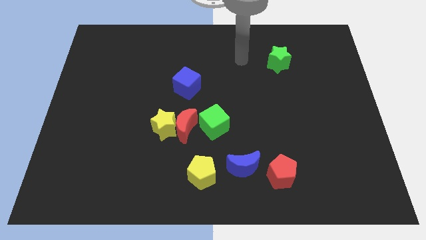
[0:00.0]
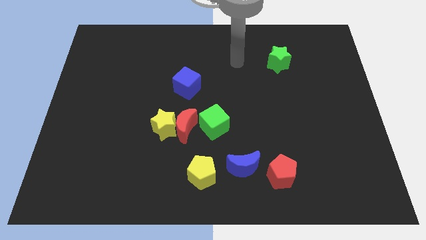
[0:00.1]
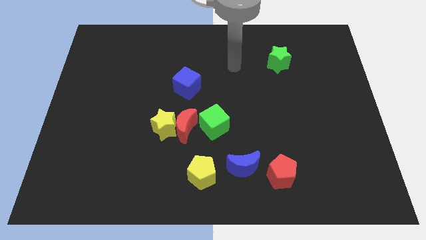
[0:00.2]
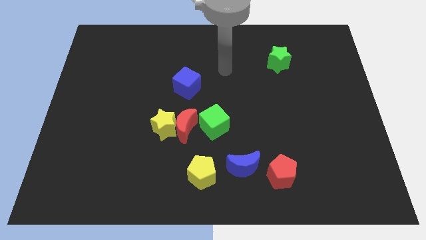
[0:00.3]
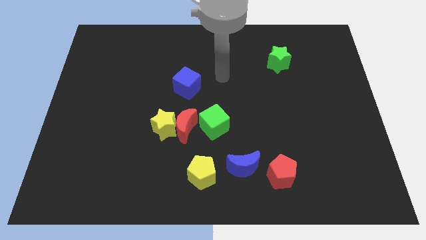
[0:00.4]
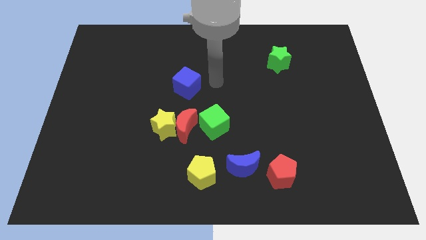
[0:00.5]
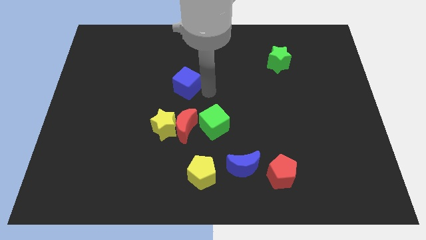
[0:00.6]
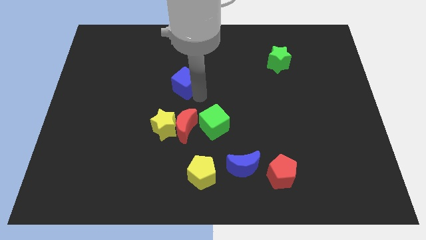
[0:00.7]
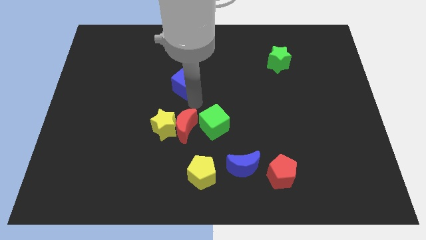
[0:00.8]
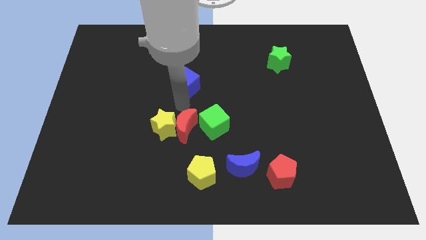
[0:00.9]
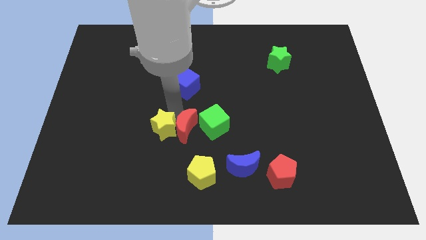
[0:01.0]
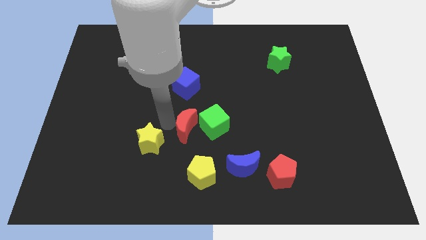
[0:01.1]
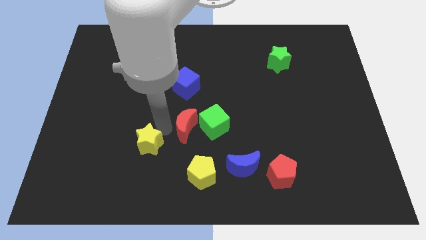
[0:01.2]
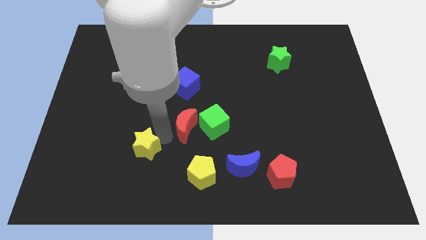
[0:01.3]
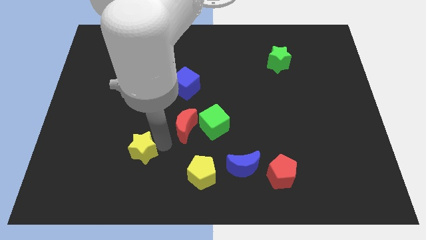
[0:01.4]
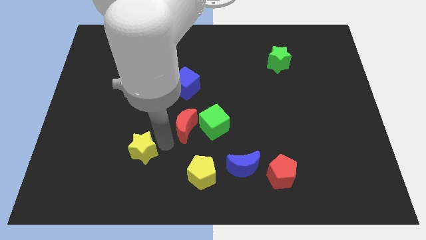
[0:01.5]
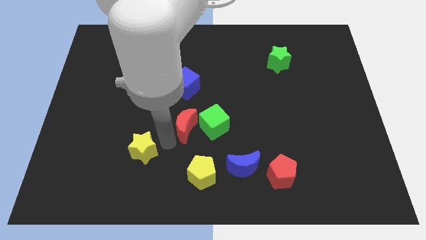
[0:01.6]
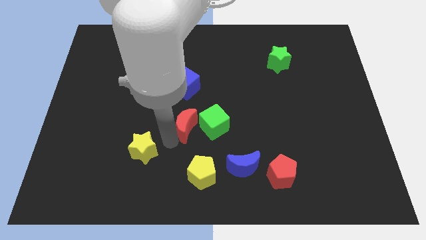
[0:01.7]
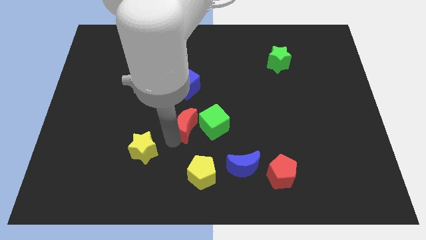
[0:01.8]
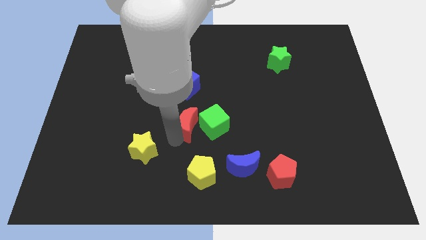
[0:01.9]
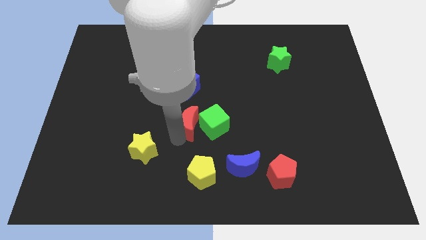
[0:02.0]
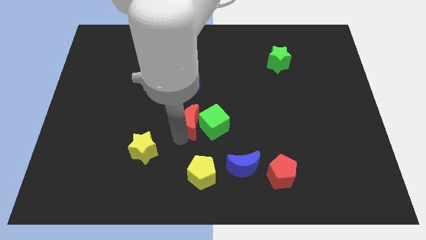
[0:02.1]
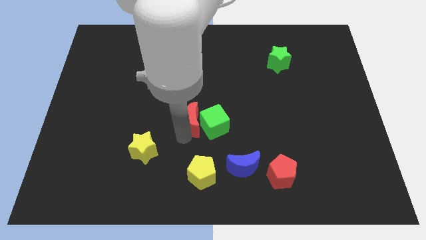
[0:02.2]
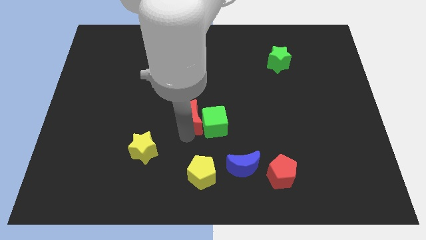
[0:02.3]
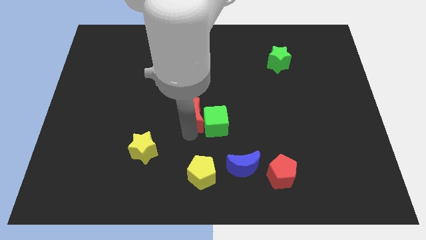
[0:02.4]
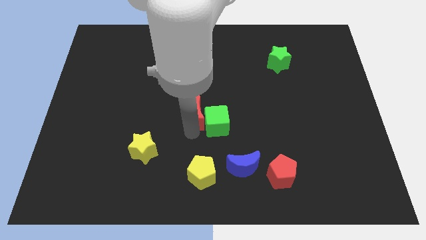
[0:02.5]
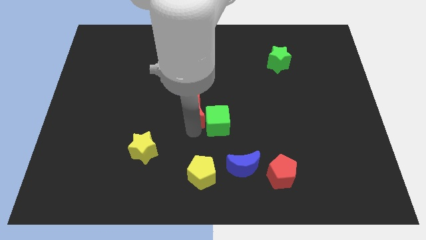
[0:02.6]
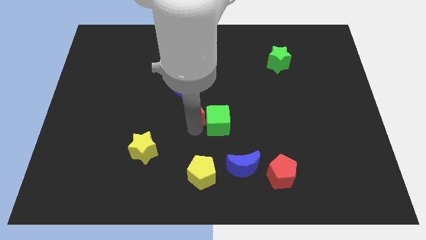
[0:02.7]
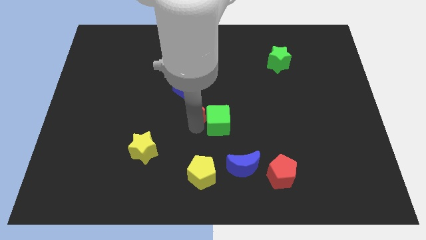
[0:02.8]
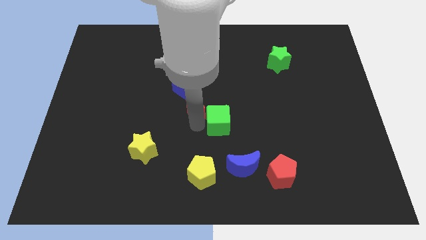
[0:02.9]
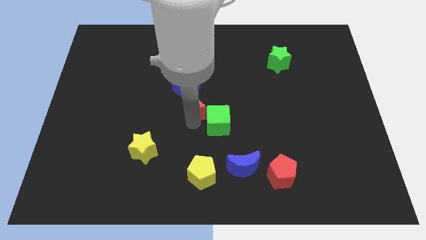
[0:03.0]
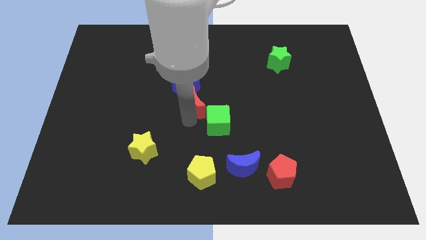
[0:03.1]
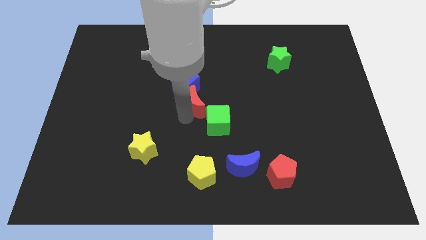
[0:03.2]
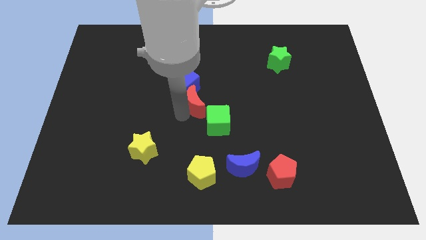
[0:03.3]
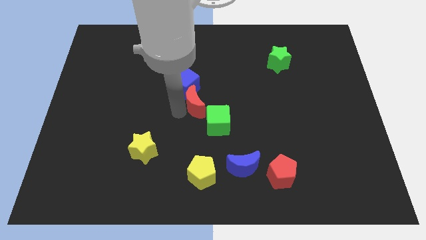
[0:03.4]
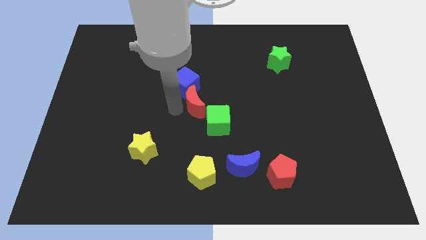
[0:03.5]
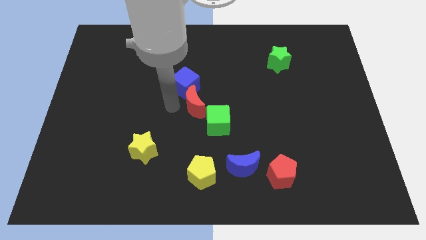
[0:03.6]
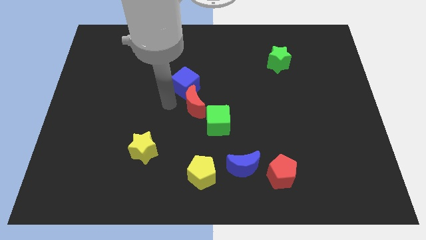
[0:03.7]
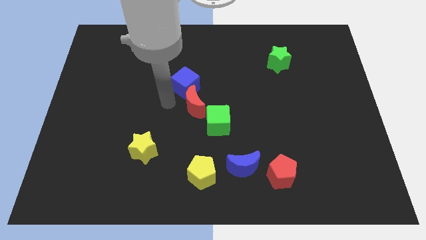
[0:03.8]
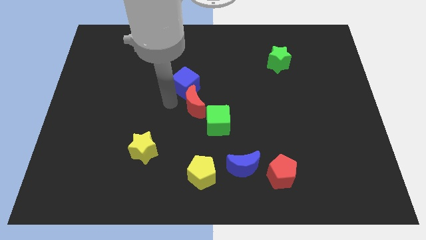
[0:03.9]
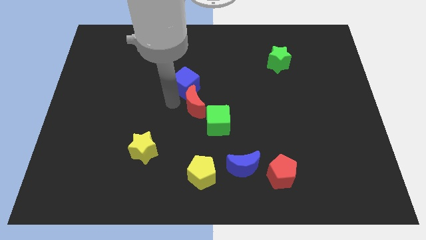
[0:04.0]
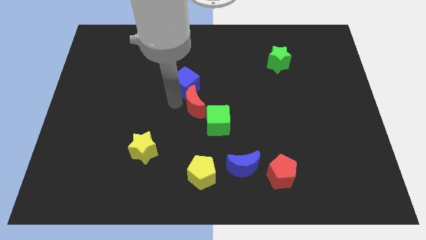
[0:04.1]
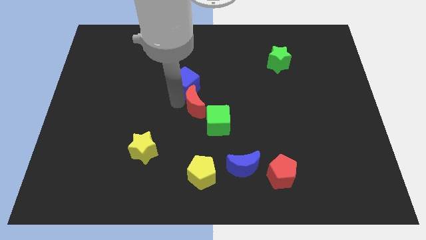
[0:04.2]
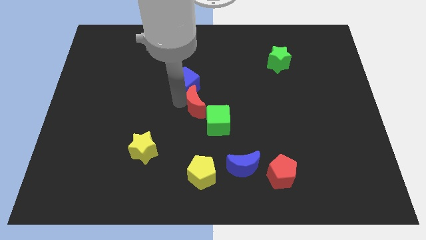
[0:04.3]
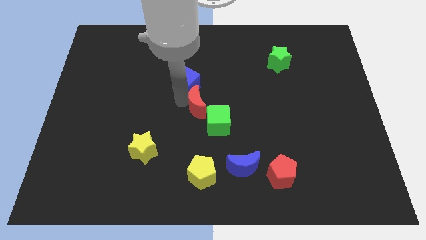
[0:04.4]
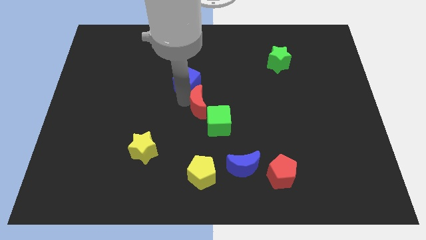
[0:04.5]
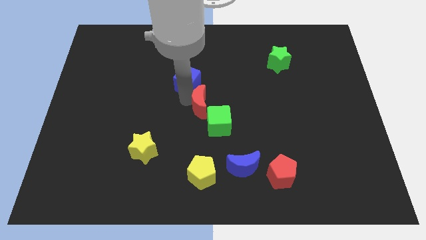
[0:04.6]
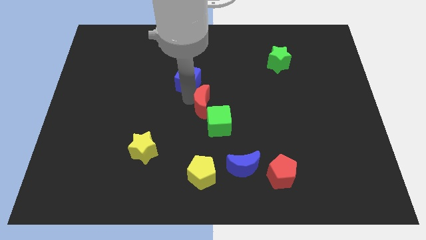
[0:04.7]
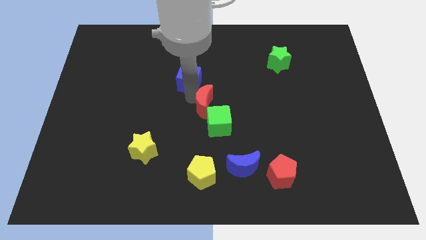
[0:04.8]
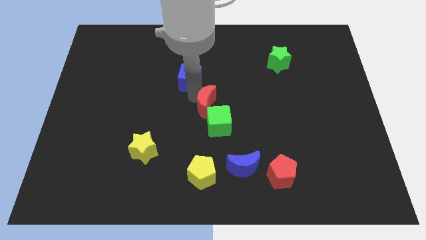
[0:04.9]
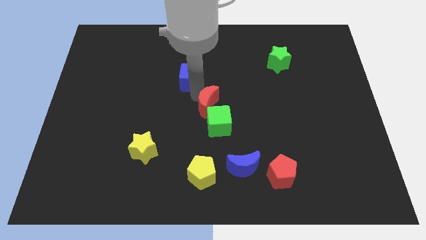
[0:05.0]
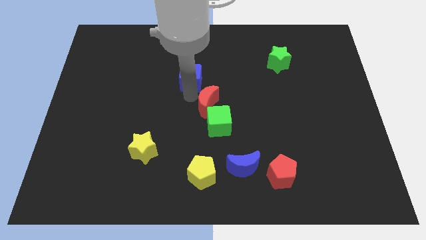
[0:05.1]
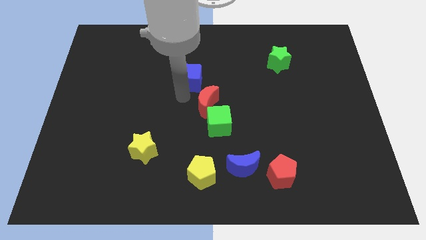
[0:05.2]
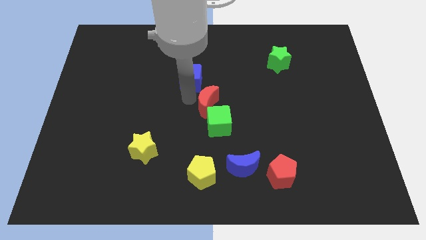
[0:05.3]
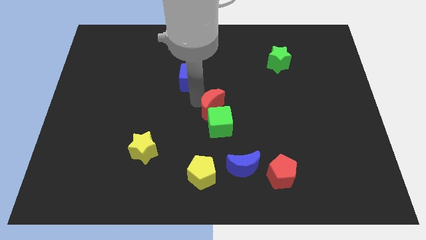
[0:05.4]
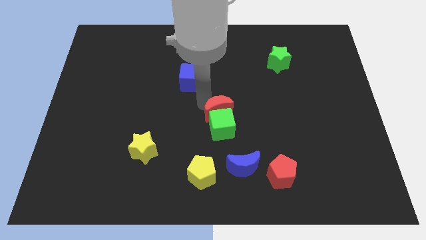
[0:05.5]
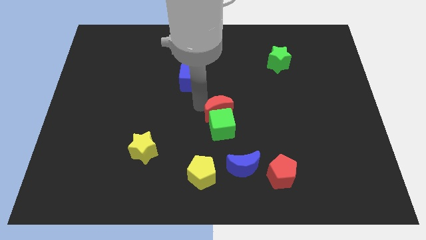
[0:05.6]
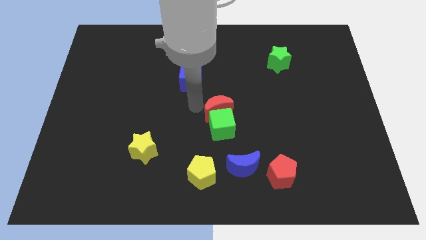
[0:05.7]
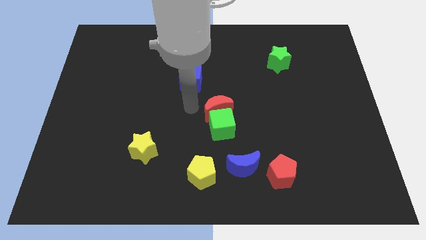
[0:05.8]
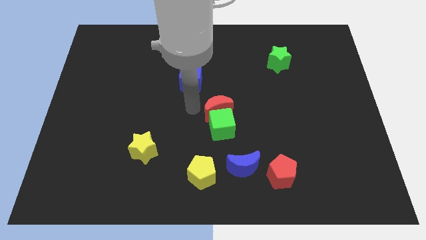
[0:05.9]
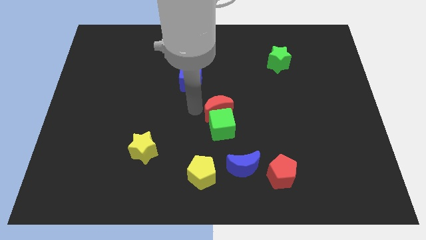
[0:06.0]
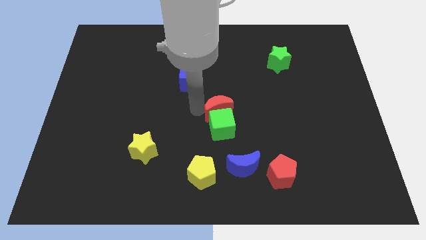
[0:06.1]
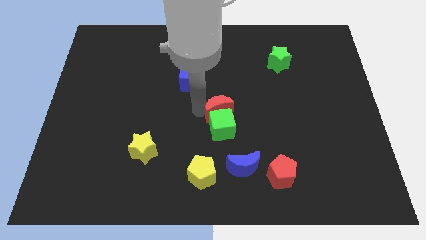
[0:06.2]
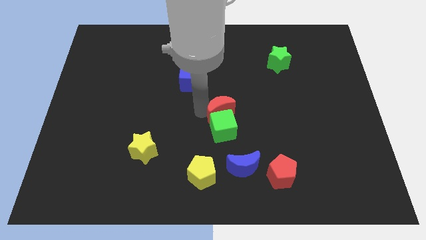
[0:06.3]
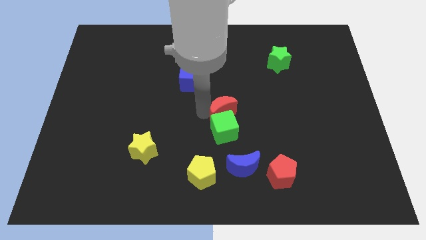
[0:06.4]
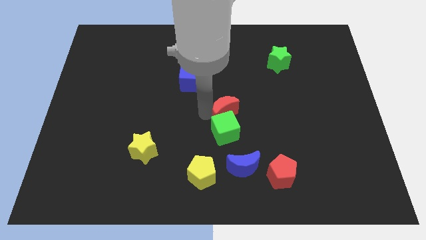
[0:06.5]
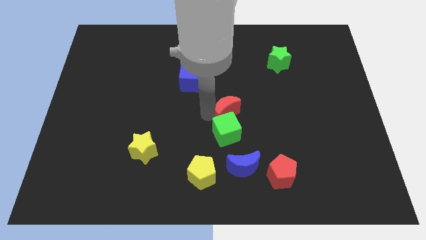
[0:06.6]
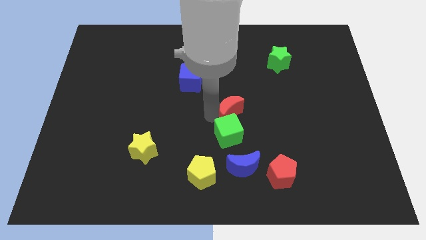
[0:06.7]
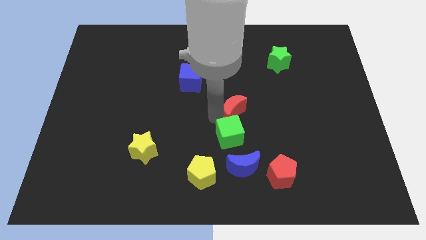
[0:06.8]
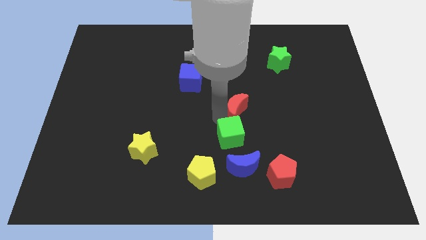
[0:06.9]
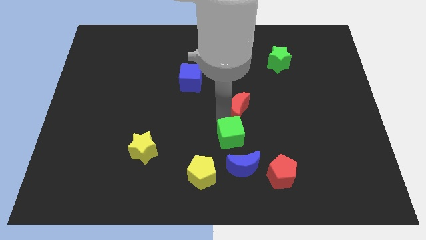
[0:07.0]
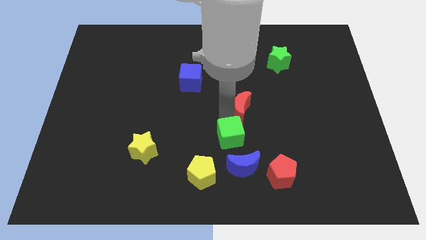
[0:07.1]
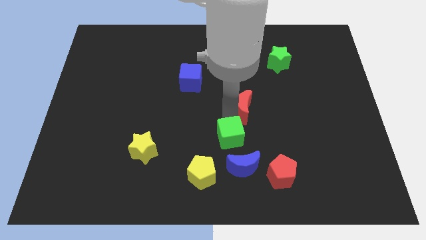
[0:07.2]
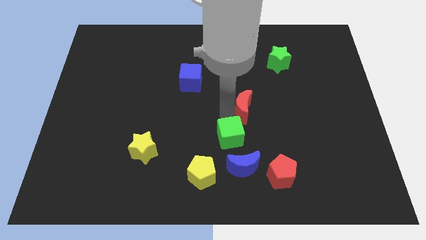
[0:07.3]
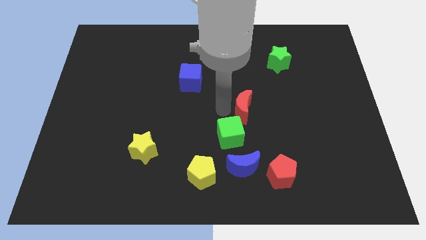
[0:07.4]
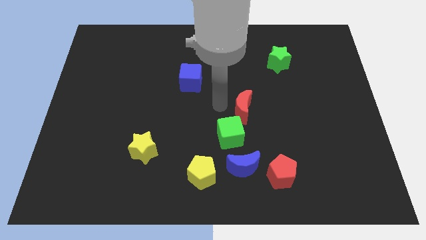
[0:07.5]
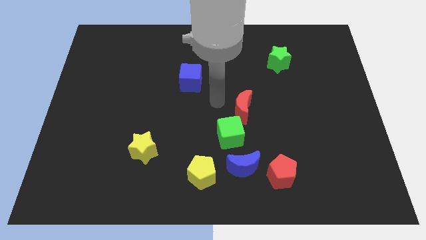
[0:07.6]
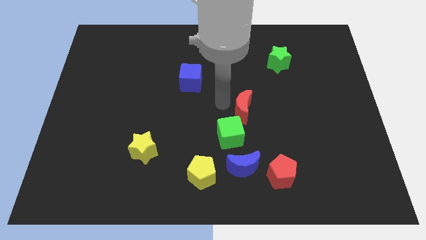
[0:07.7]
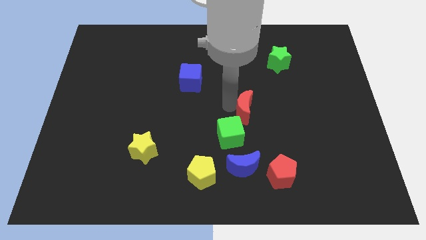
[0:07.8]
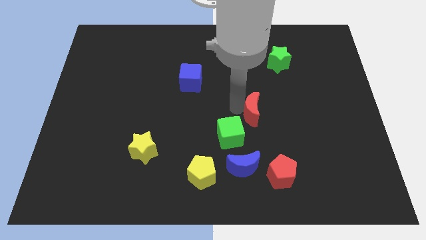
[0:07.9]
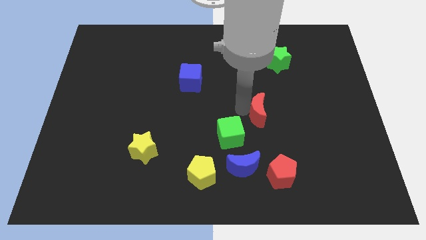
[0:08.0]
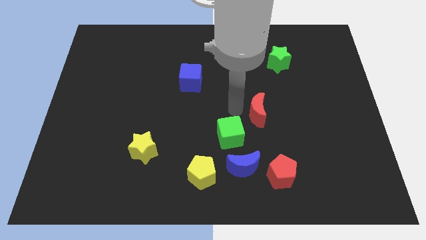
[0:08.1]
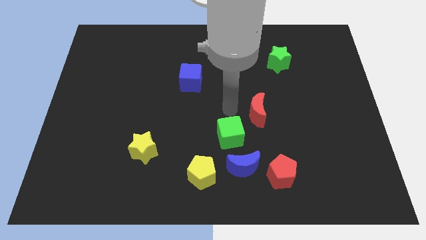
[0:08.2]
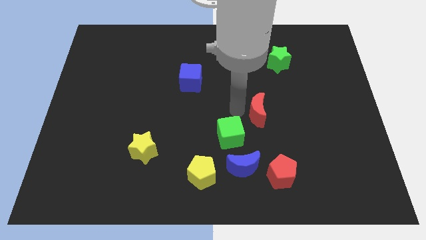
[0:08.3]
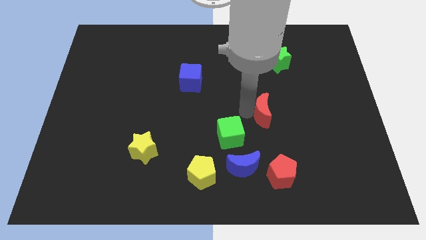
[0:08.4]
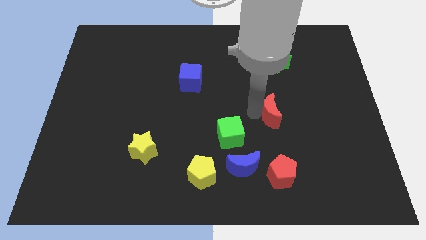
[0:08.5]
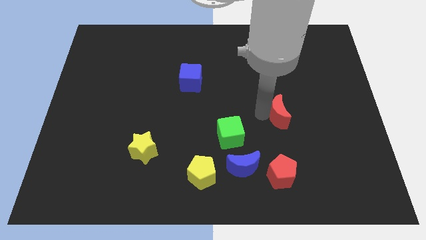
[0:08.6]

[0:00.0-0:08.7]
slide the red moon to the right
